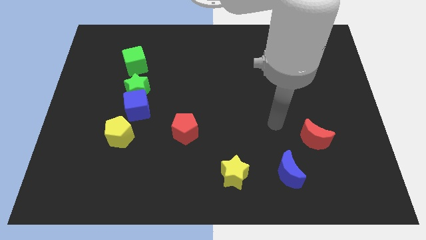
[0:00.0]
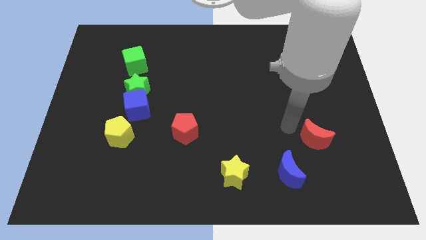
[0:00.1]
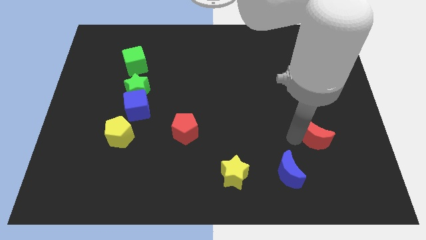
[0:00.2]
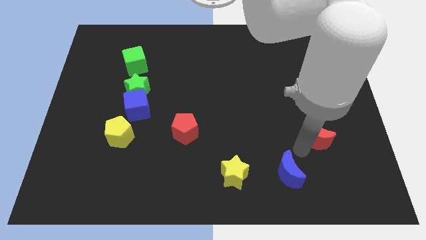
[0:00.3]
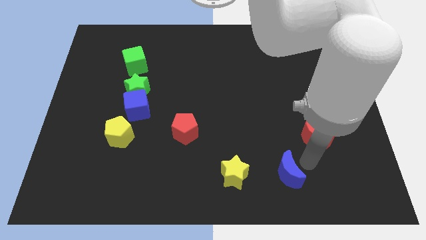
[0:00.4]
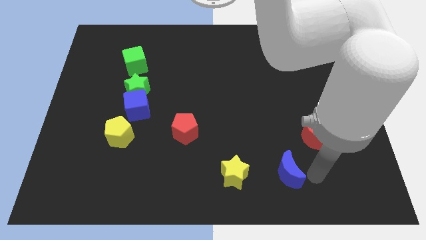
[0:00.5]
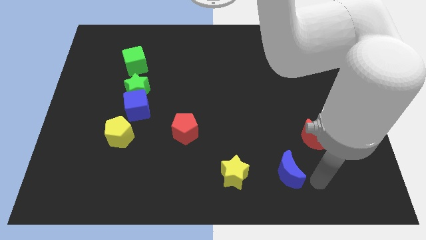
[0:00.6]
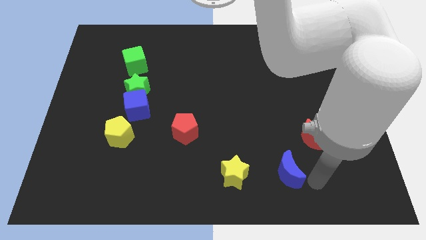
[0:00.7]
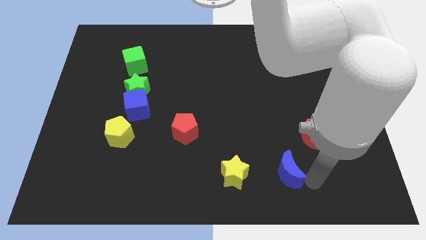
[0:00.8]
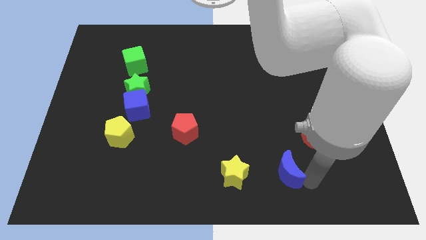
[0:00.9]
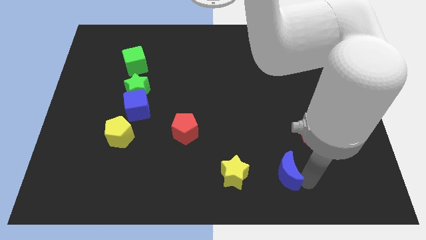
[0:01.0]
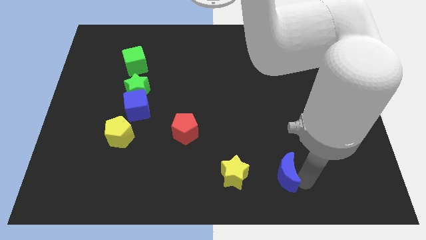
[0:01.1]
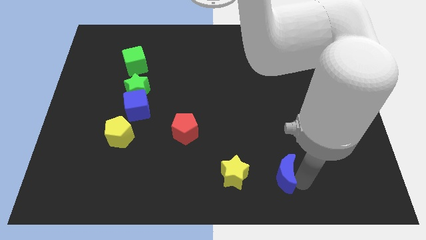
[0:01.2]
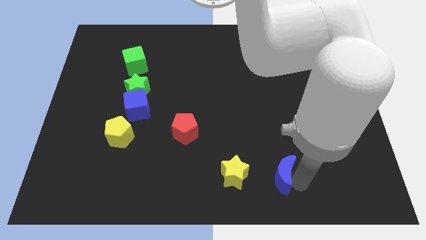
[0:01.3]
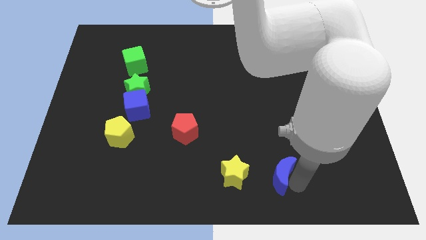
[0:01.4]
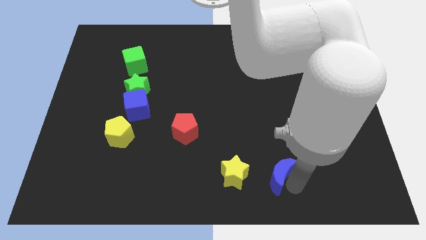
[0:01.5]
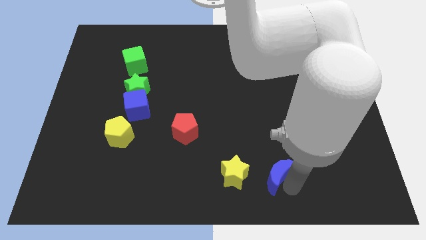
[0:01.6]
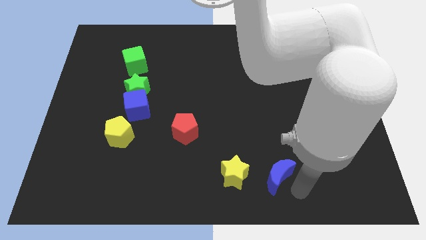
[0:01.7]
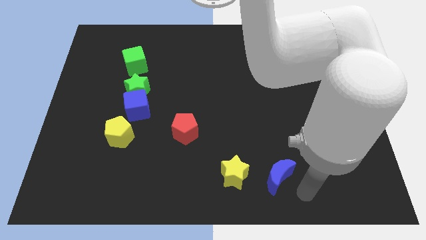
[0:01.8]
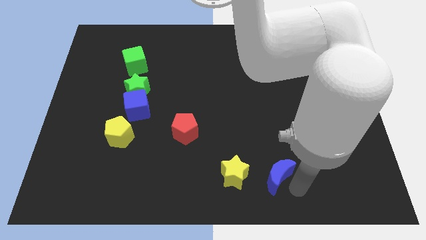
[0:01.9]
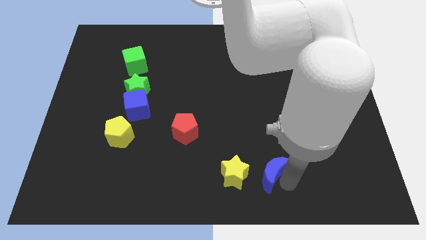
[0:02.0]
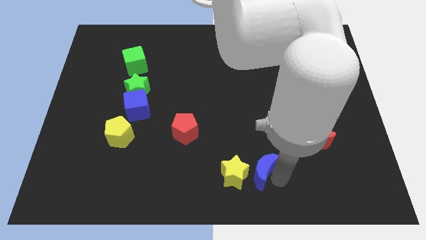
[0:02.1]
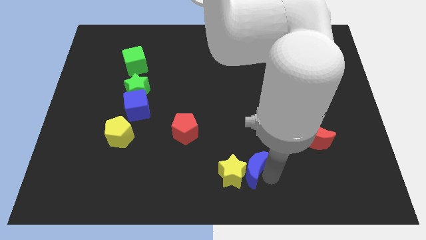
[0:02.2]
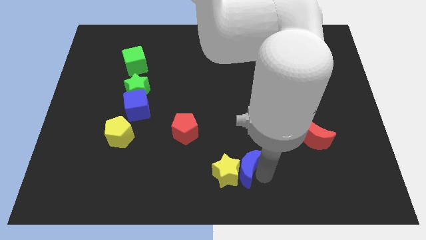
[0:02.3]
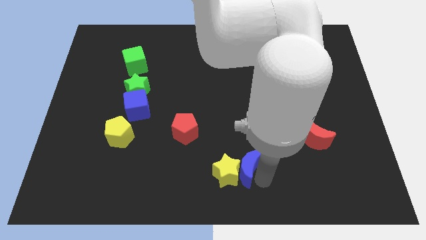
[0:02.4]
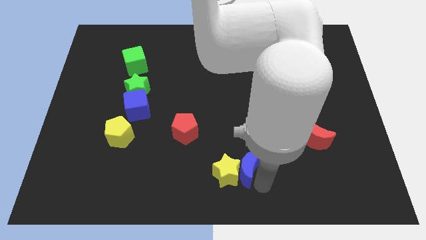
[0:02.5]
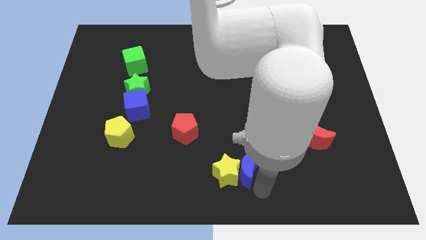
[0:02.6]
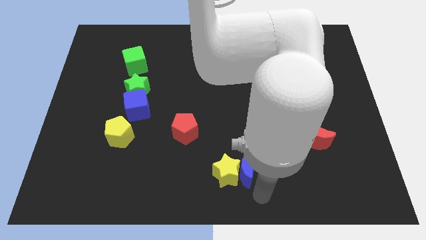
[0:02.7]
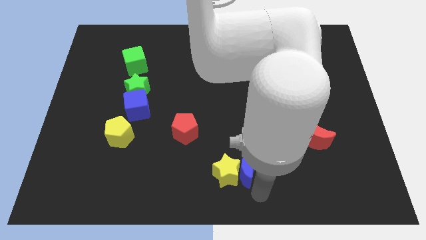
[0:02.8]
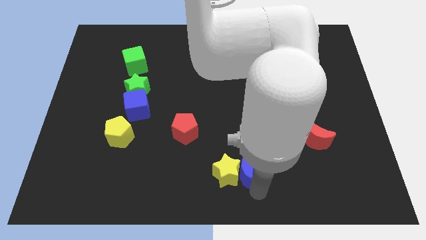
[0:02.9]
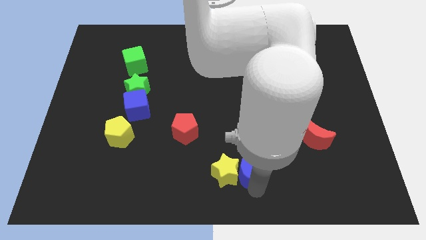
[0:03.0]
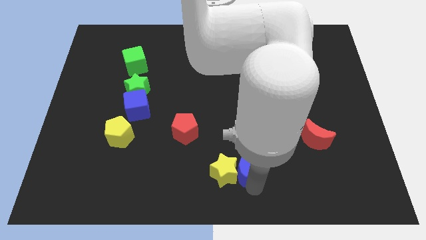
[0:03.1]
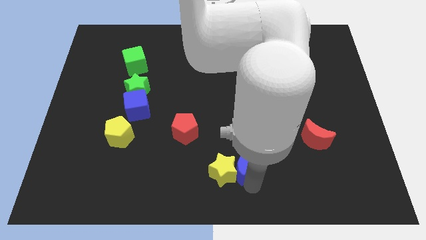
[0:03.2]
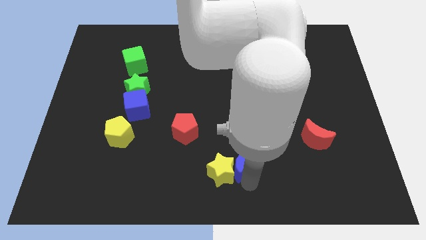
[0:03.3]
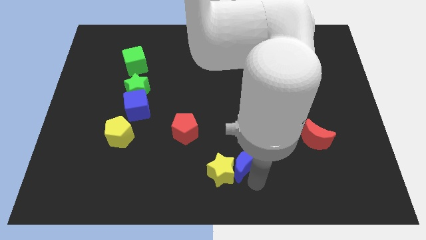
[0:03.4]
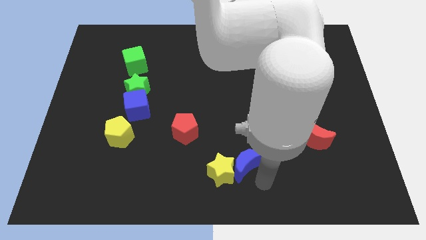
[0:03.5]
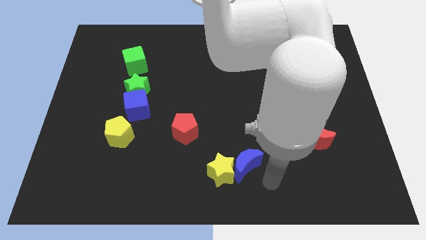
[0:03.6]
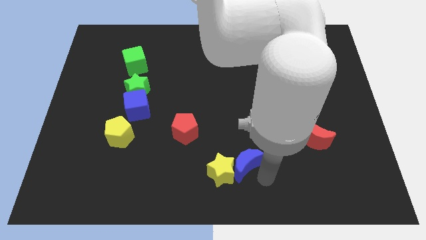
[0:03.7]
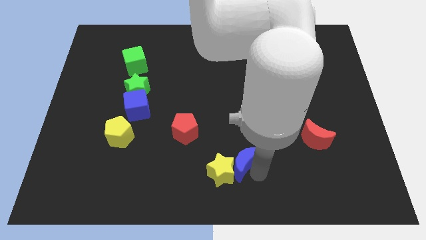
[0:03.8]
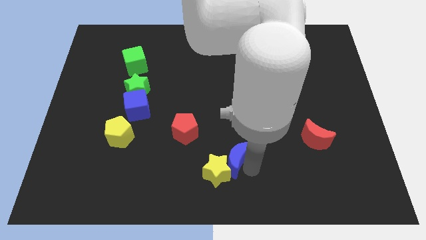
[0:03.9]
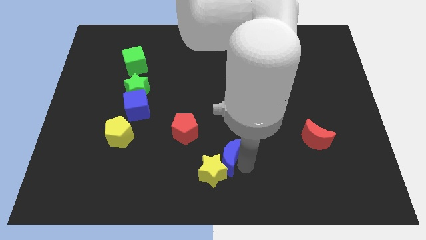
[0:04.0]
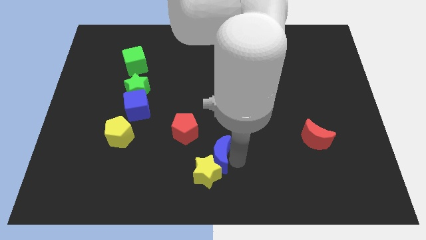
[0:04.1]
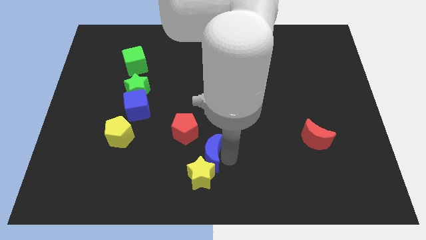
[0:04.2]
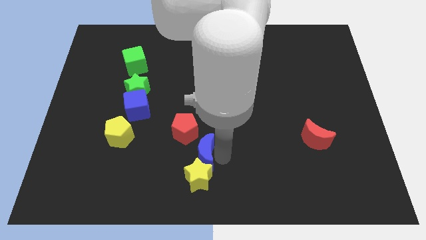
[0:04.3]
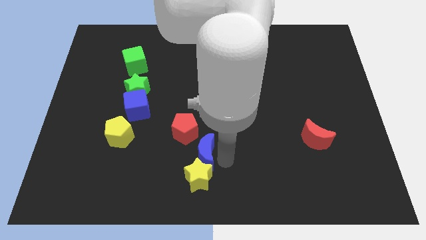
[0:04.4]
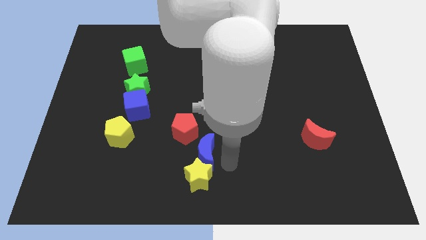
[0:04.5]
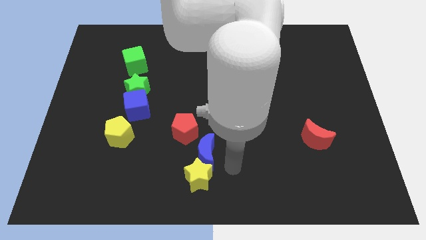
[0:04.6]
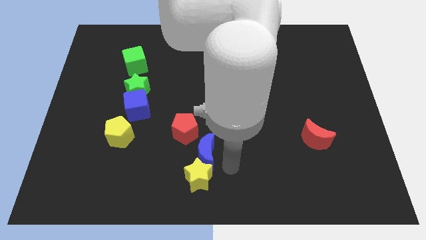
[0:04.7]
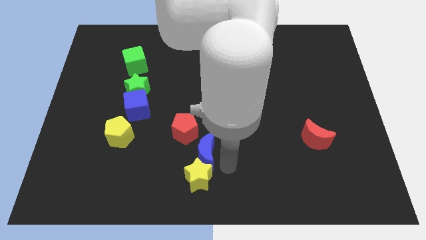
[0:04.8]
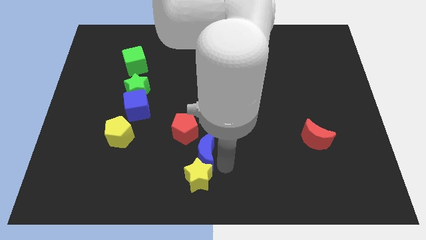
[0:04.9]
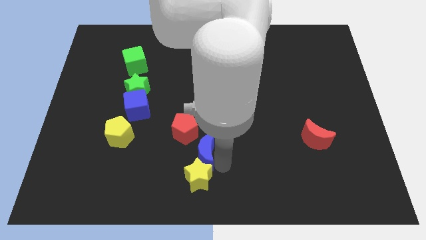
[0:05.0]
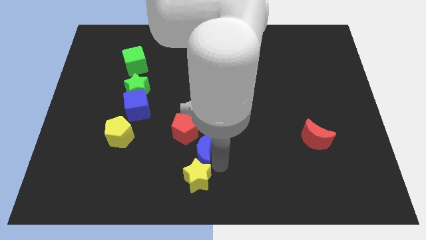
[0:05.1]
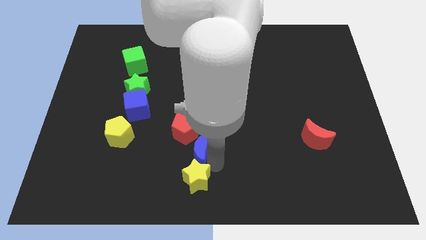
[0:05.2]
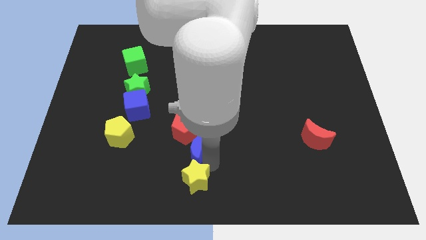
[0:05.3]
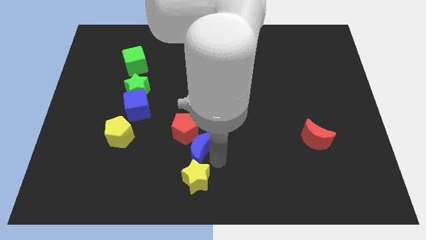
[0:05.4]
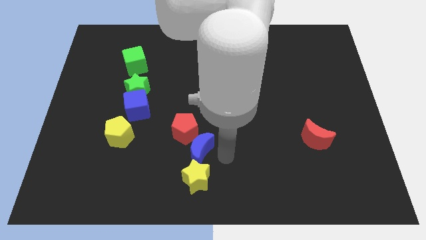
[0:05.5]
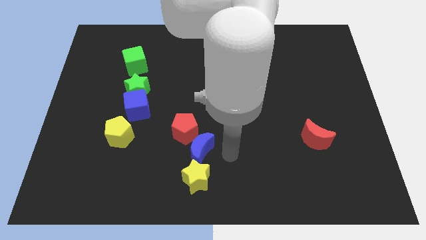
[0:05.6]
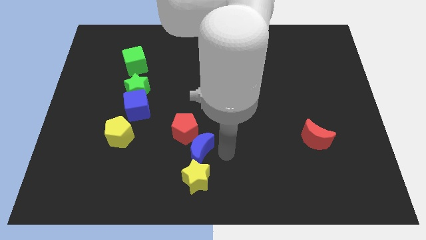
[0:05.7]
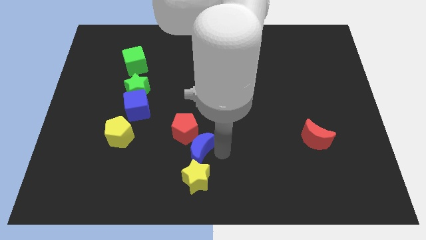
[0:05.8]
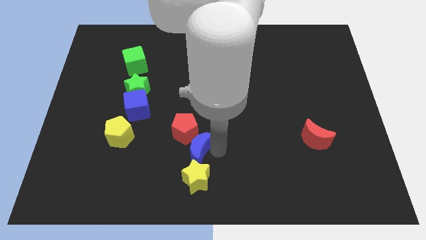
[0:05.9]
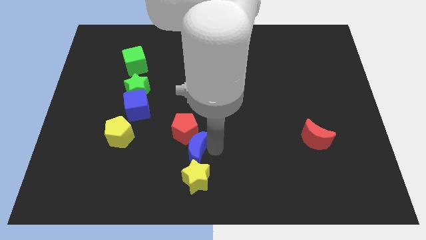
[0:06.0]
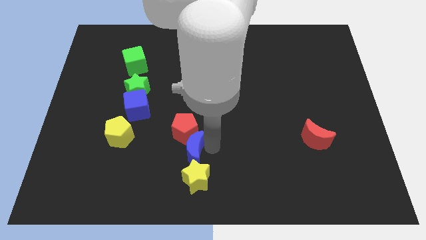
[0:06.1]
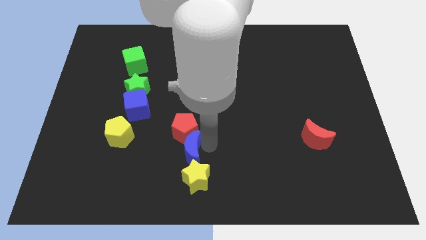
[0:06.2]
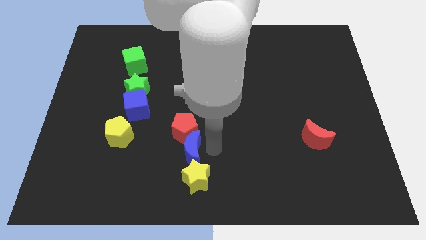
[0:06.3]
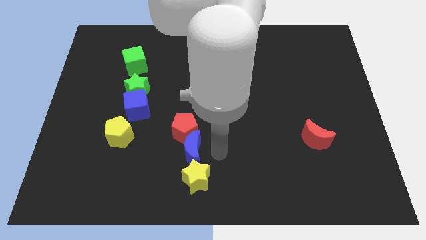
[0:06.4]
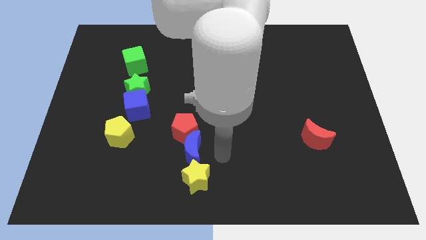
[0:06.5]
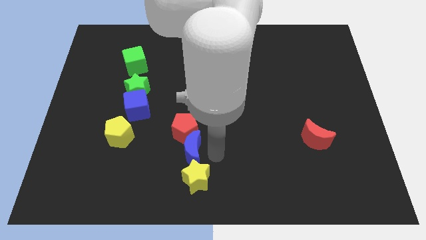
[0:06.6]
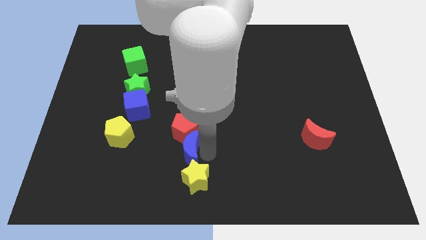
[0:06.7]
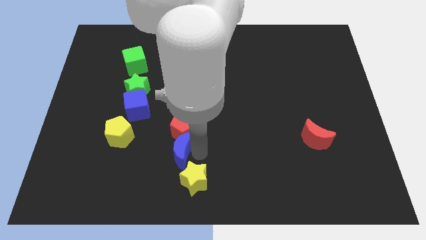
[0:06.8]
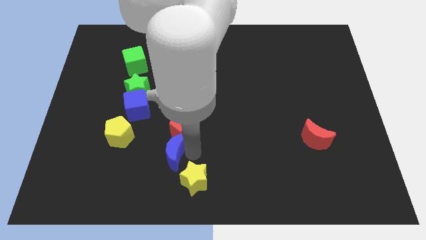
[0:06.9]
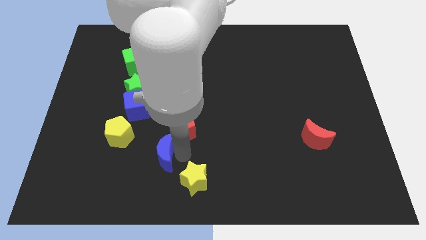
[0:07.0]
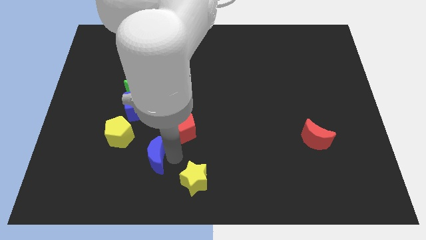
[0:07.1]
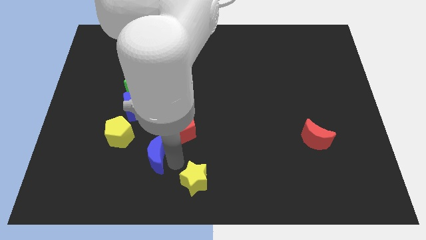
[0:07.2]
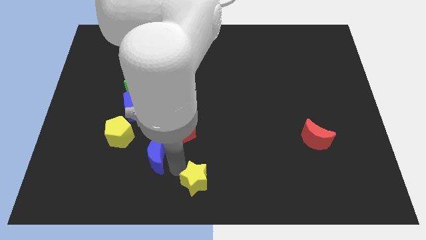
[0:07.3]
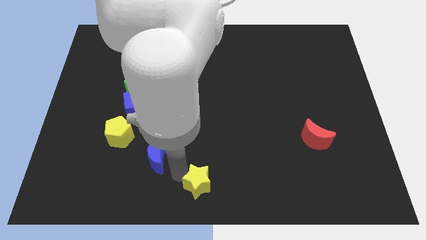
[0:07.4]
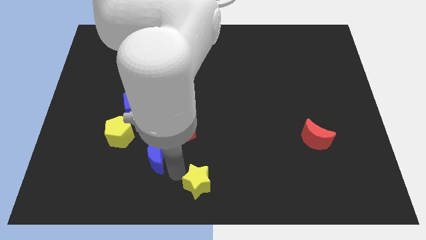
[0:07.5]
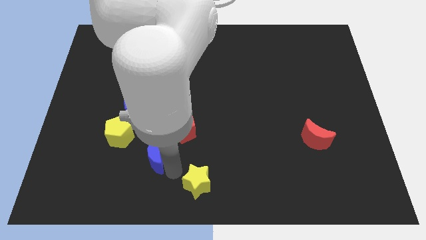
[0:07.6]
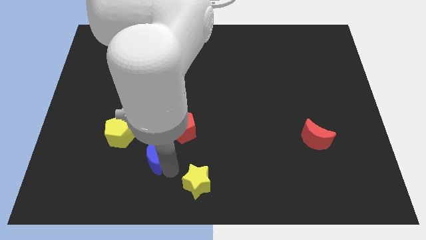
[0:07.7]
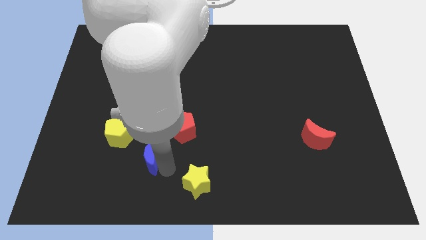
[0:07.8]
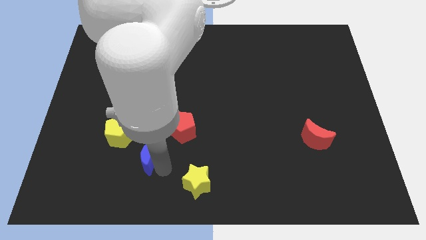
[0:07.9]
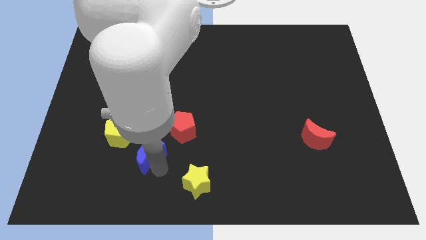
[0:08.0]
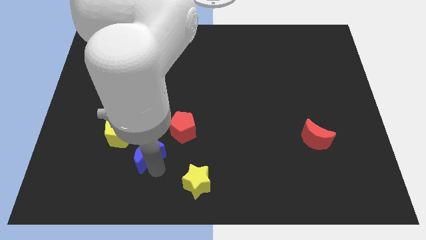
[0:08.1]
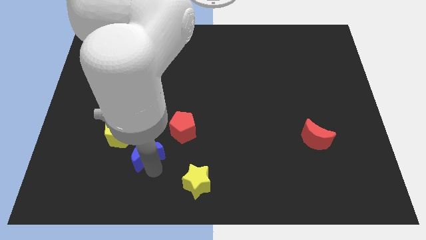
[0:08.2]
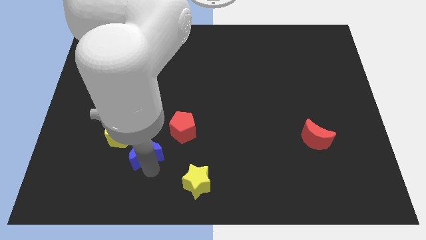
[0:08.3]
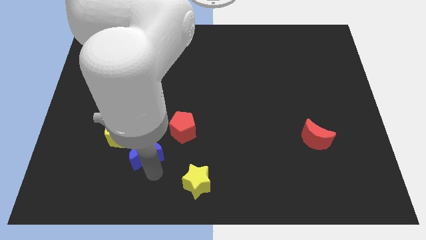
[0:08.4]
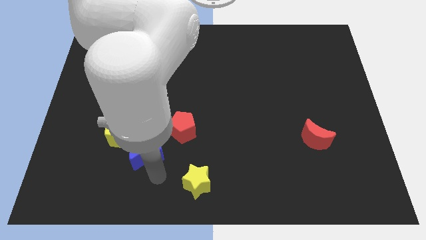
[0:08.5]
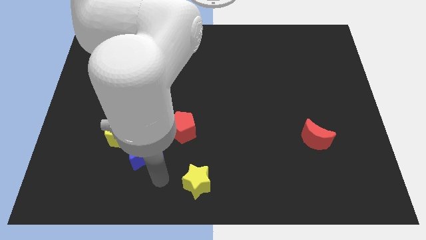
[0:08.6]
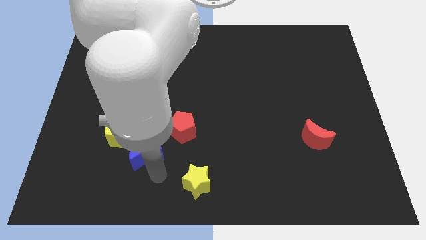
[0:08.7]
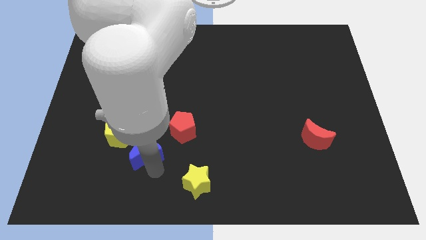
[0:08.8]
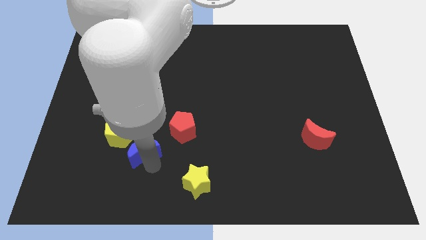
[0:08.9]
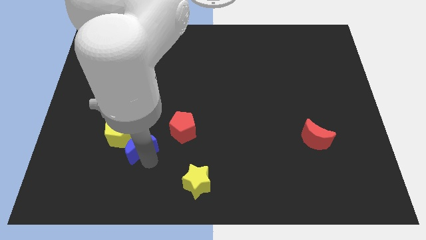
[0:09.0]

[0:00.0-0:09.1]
slide the blue moon towards the yellow pentagon
